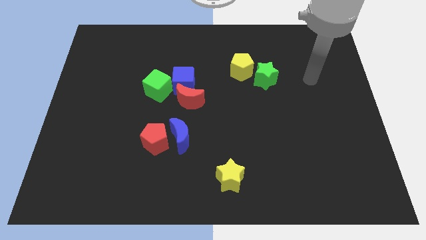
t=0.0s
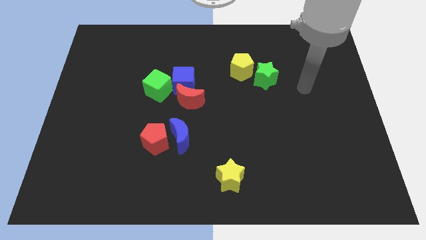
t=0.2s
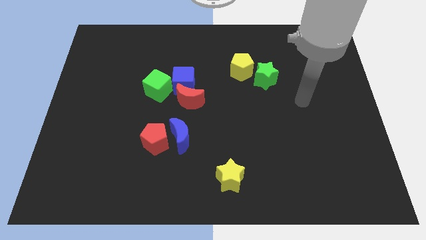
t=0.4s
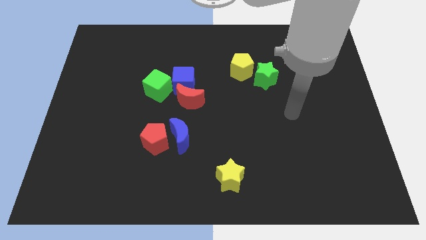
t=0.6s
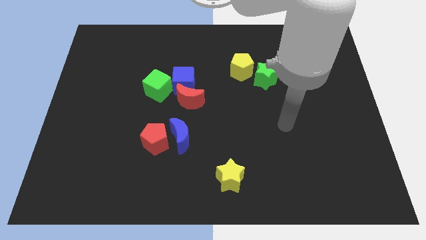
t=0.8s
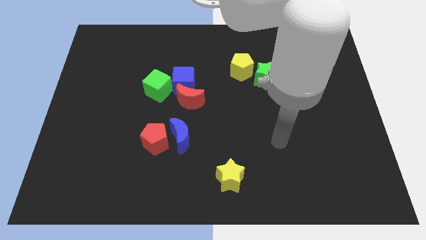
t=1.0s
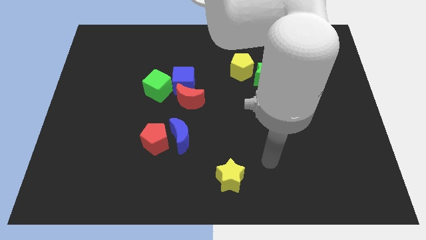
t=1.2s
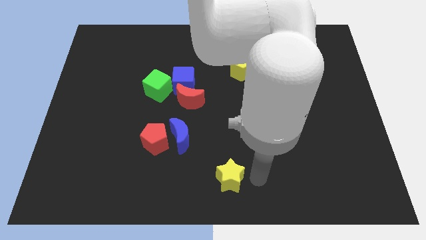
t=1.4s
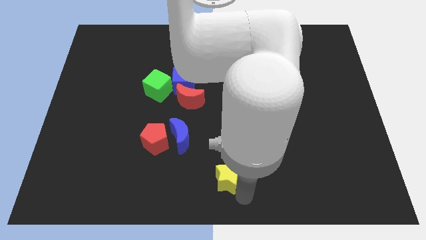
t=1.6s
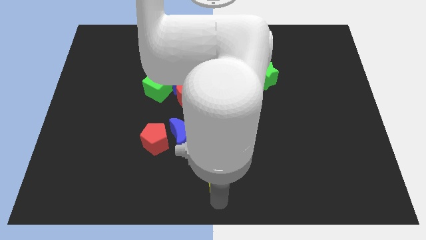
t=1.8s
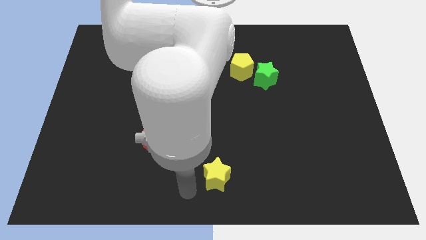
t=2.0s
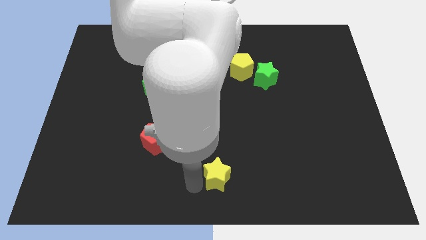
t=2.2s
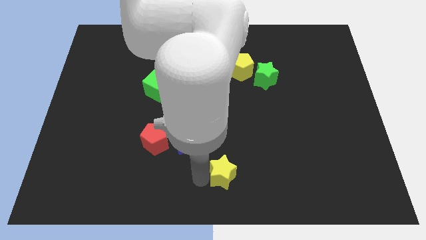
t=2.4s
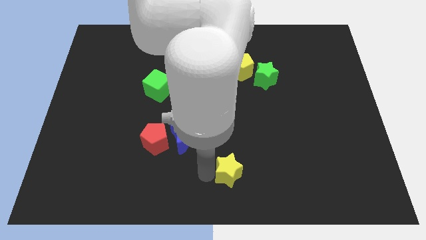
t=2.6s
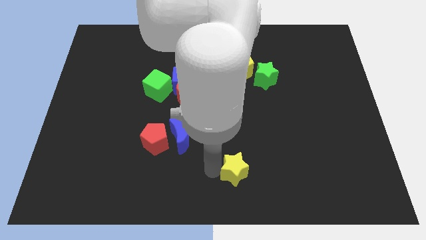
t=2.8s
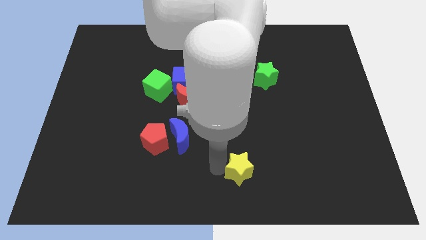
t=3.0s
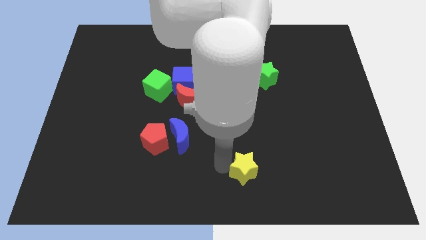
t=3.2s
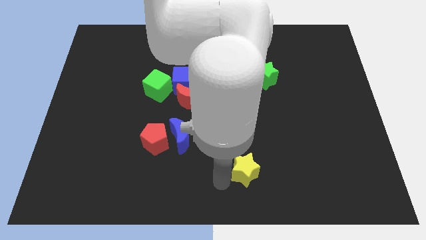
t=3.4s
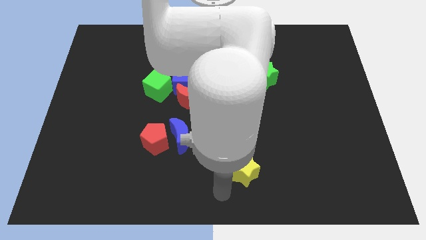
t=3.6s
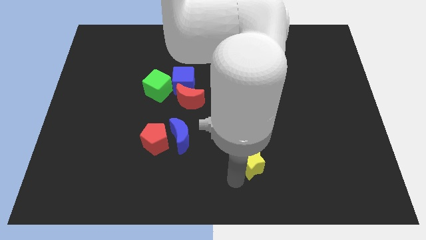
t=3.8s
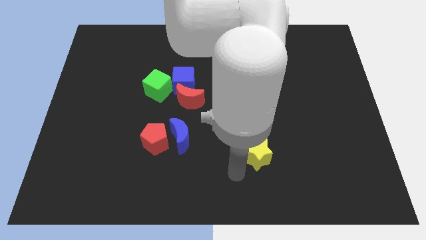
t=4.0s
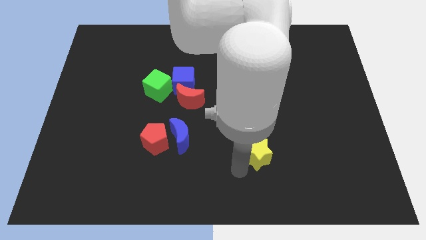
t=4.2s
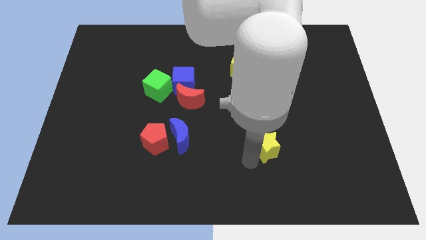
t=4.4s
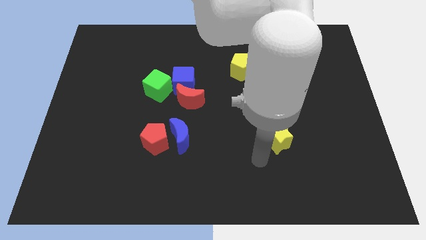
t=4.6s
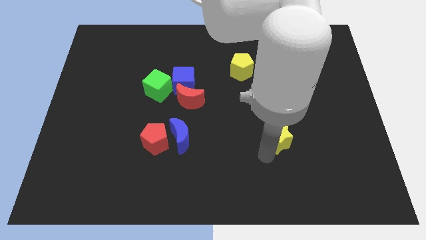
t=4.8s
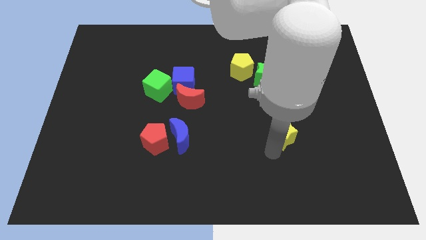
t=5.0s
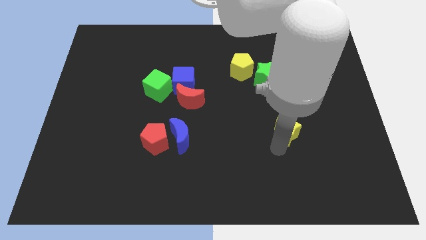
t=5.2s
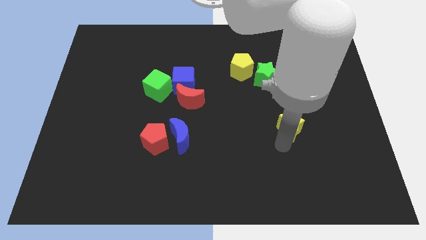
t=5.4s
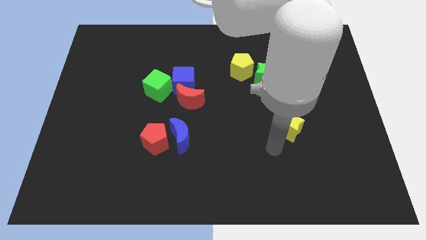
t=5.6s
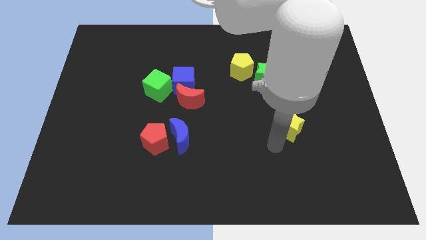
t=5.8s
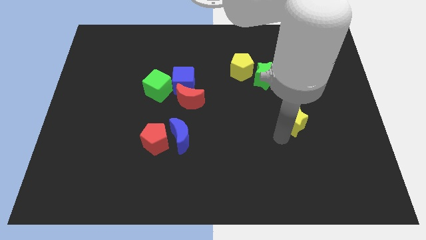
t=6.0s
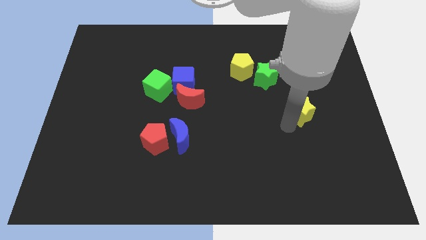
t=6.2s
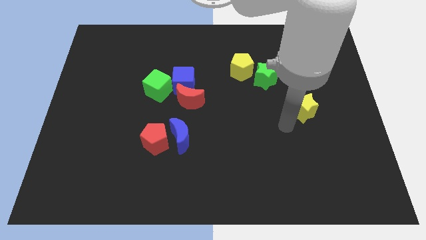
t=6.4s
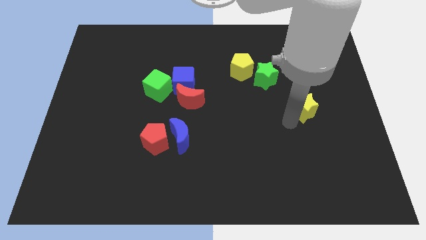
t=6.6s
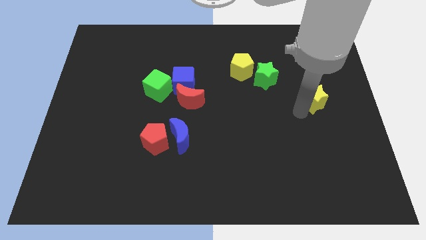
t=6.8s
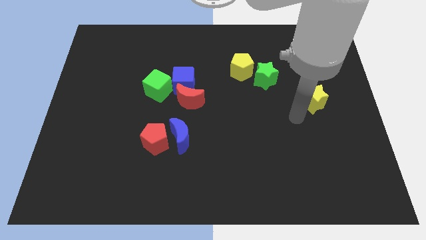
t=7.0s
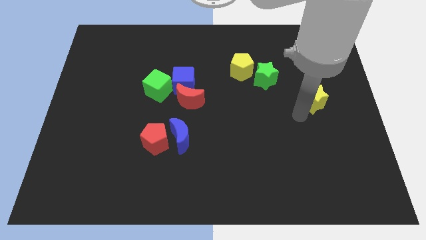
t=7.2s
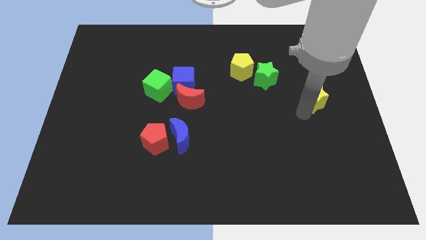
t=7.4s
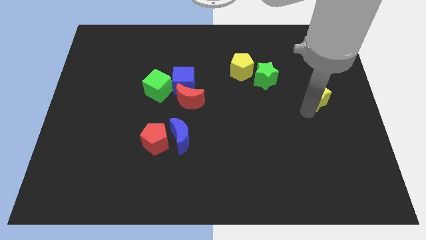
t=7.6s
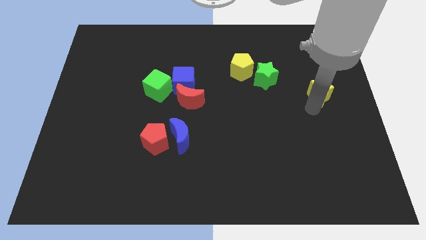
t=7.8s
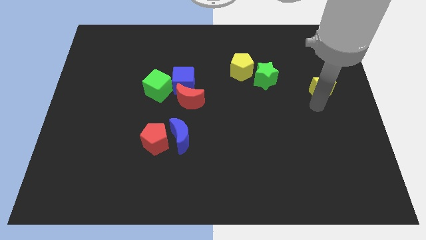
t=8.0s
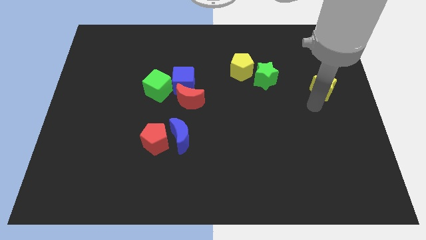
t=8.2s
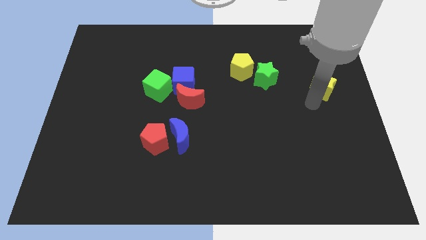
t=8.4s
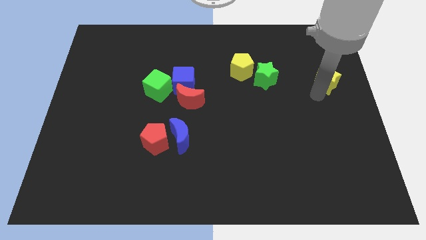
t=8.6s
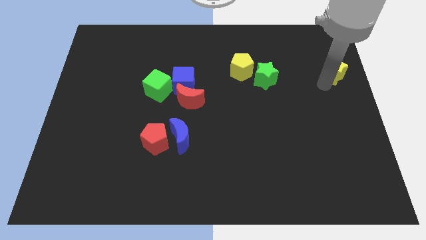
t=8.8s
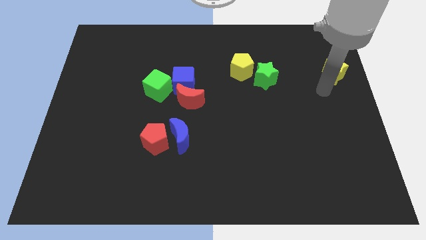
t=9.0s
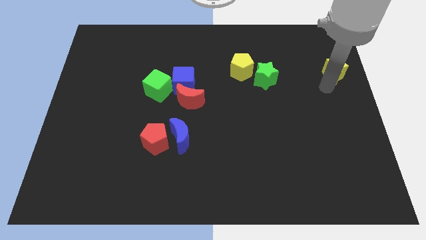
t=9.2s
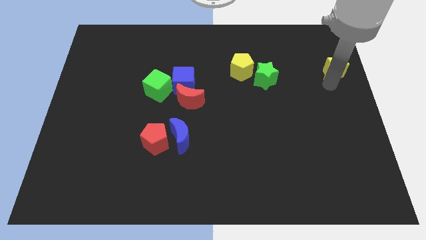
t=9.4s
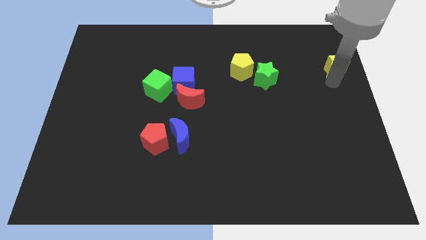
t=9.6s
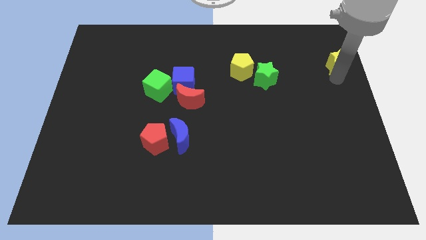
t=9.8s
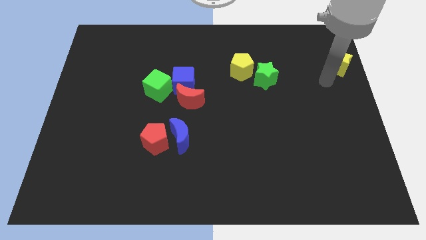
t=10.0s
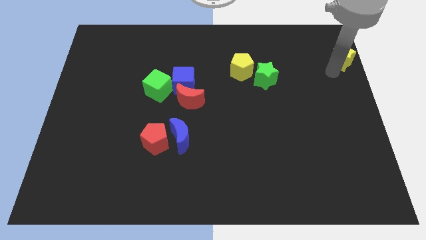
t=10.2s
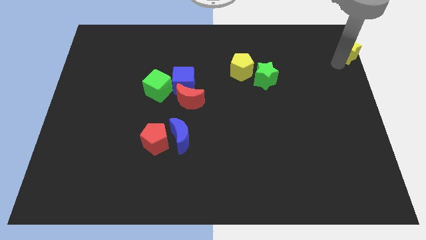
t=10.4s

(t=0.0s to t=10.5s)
push the yellow star to the top right

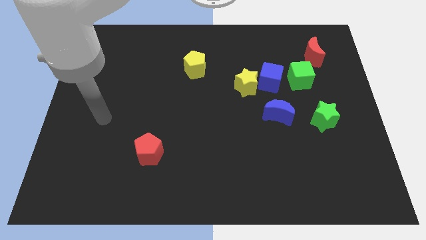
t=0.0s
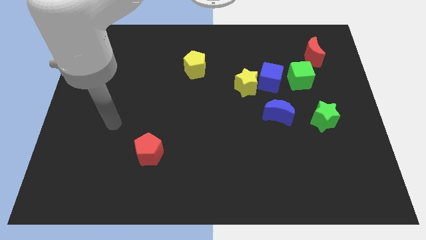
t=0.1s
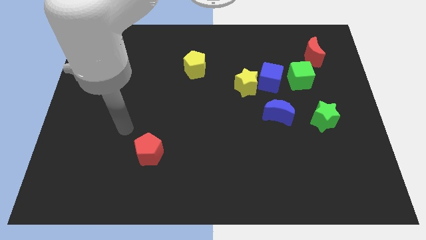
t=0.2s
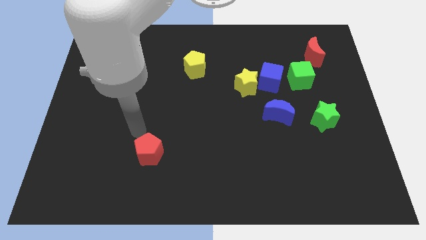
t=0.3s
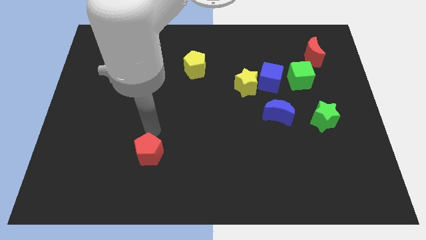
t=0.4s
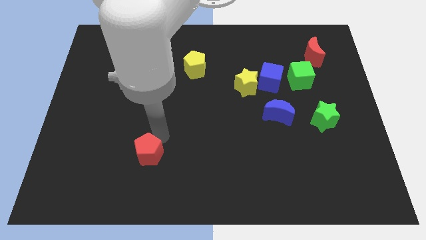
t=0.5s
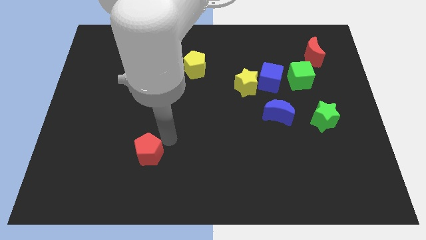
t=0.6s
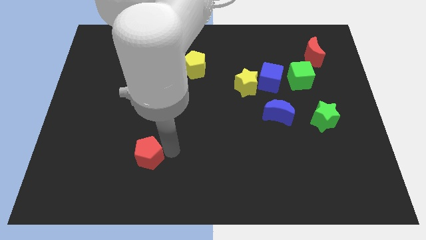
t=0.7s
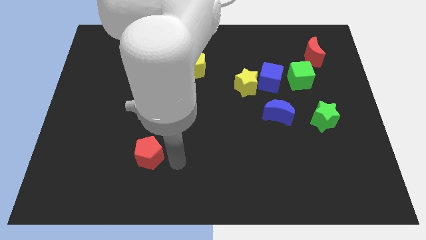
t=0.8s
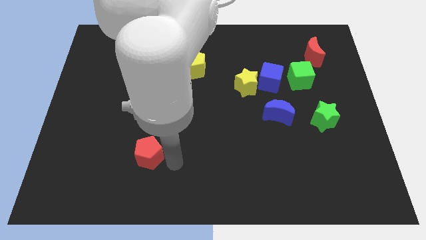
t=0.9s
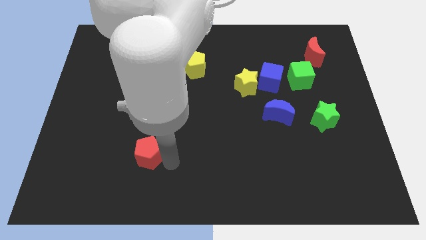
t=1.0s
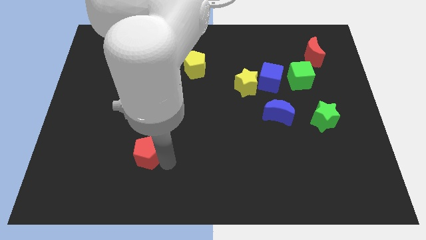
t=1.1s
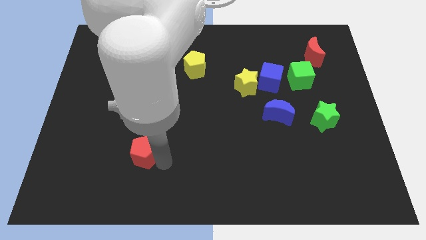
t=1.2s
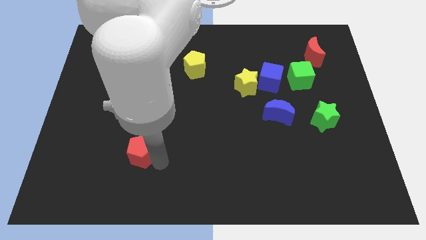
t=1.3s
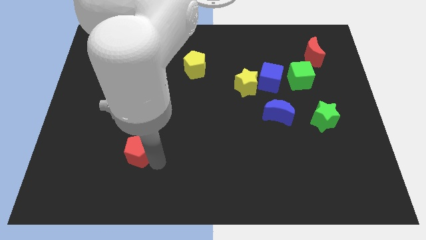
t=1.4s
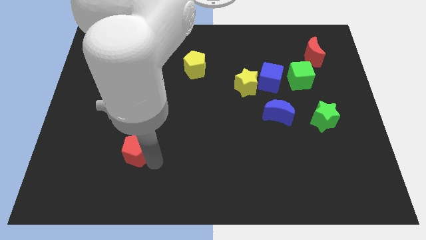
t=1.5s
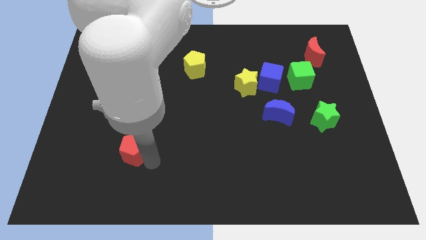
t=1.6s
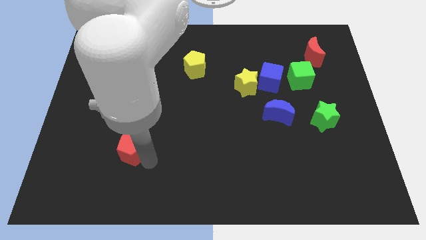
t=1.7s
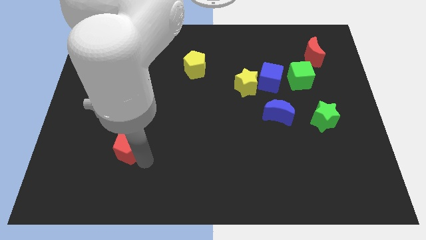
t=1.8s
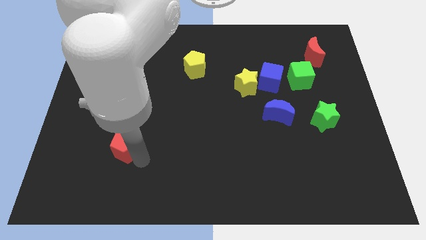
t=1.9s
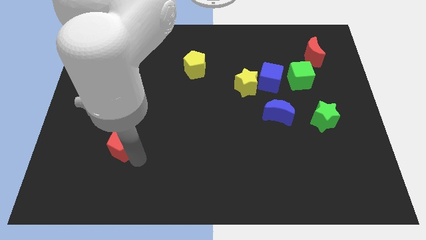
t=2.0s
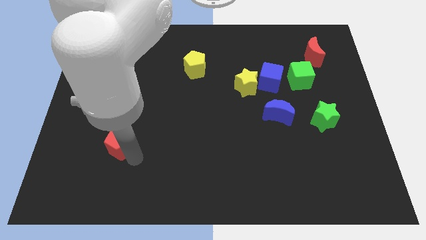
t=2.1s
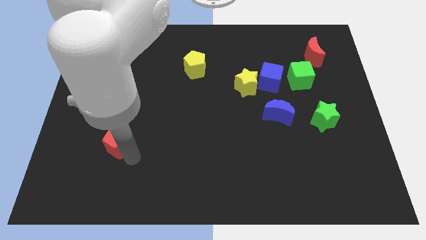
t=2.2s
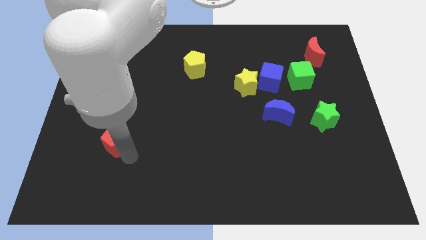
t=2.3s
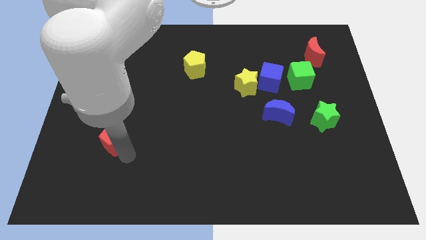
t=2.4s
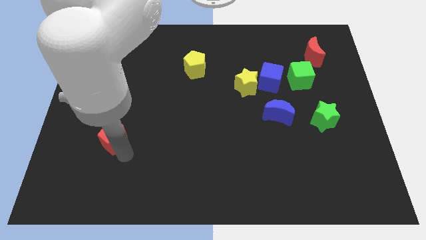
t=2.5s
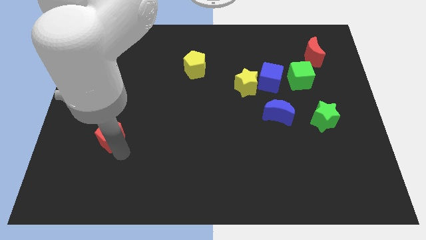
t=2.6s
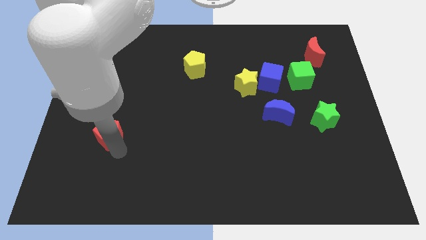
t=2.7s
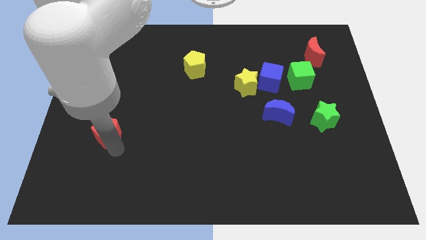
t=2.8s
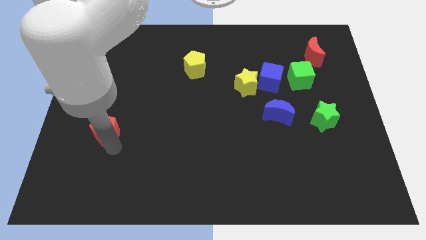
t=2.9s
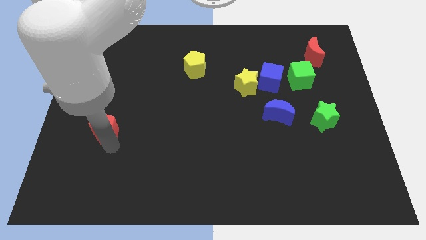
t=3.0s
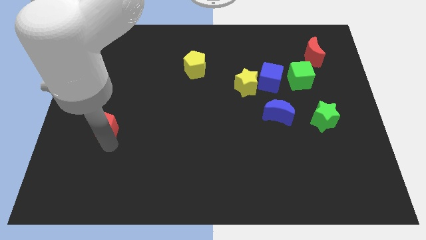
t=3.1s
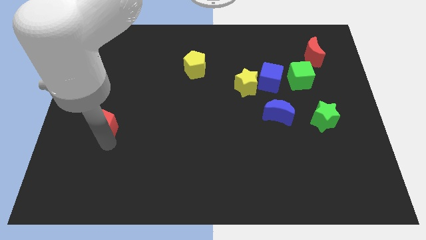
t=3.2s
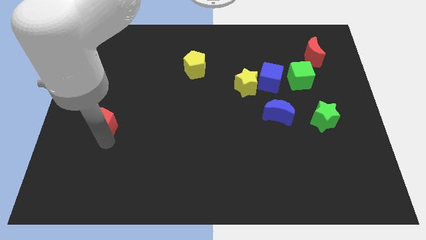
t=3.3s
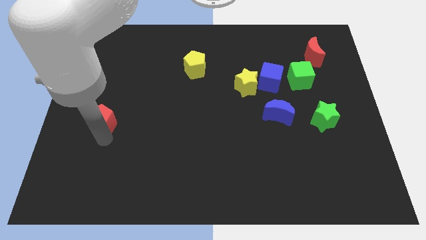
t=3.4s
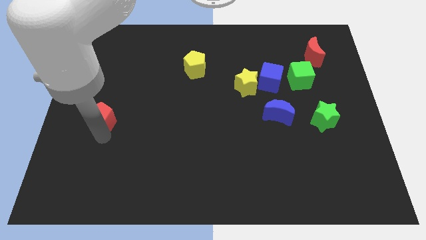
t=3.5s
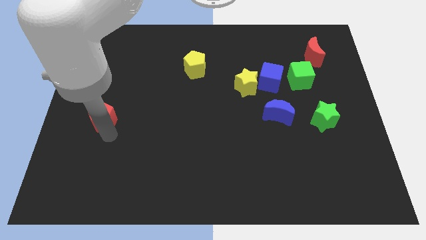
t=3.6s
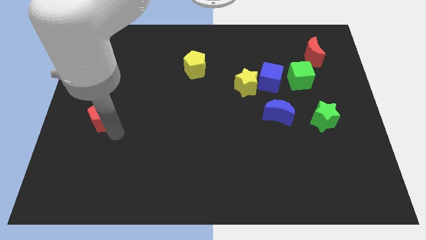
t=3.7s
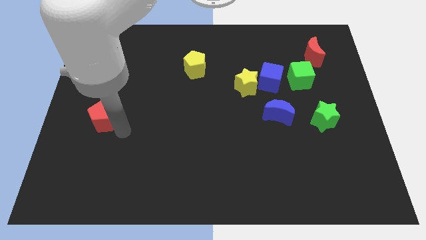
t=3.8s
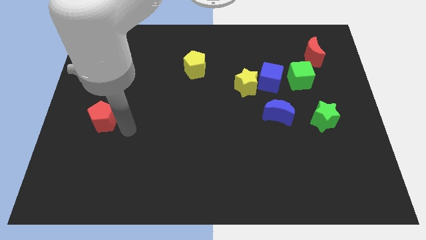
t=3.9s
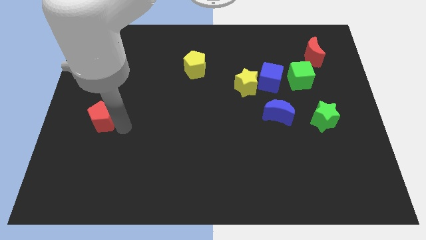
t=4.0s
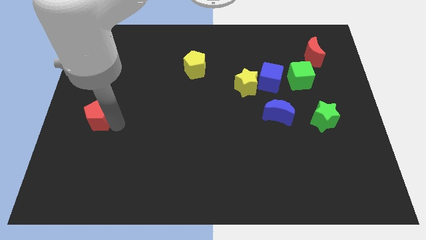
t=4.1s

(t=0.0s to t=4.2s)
push the red pentagon to the left side
